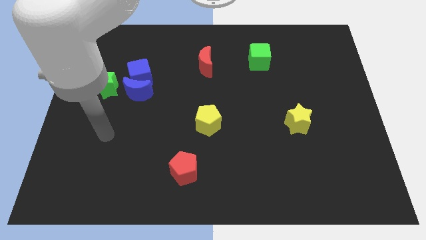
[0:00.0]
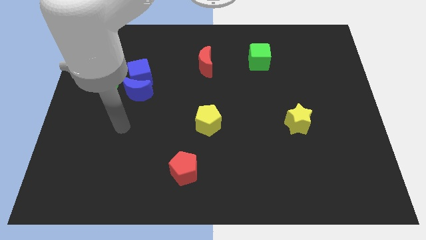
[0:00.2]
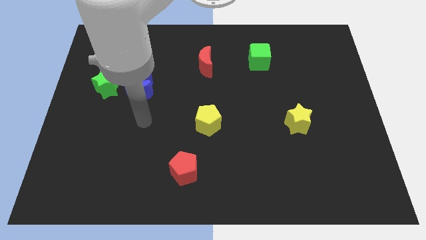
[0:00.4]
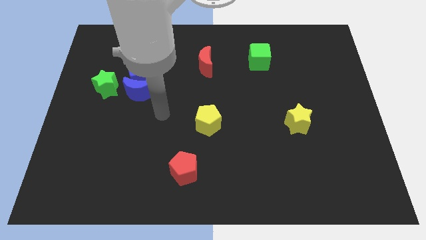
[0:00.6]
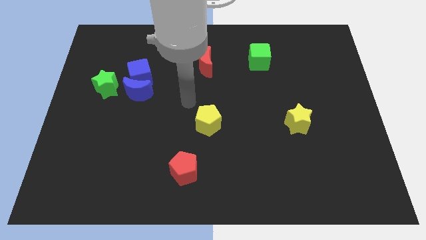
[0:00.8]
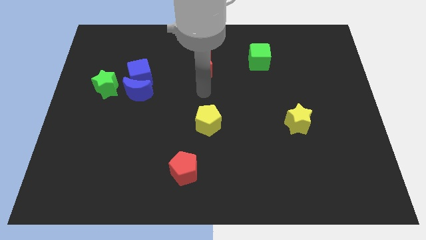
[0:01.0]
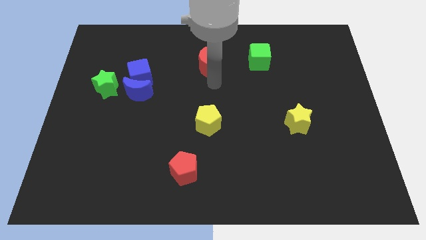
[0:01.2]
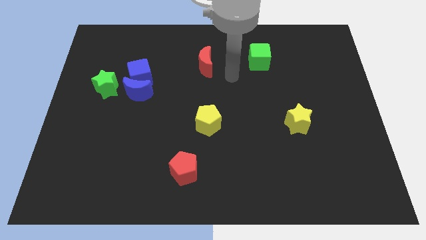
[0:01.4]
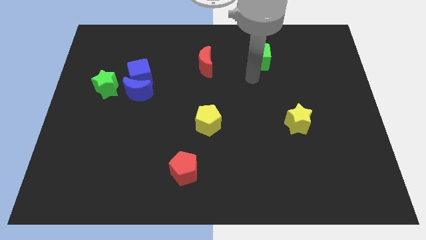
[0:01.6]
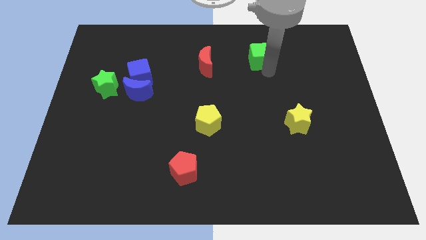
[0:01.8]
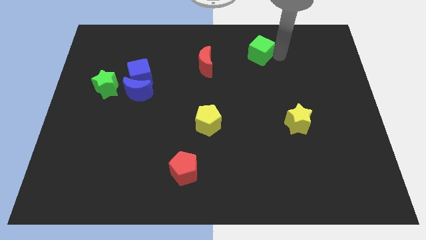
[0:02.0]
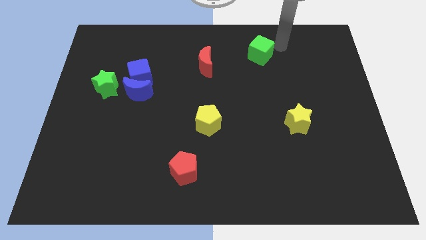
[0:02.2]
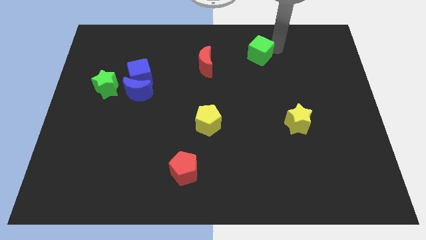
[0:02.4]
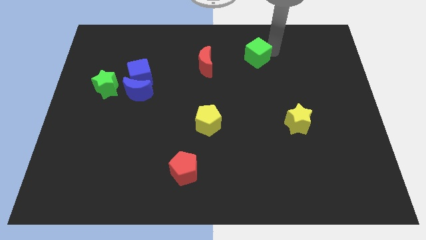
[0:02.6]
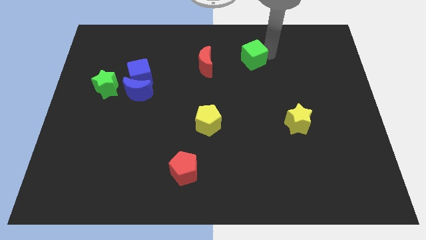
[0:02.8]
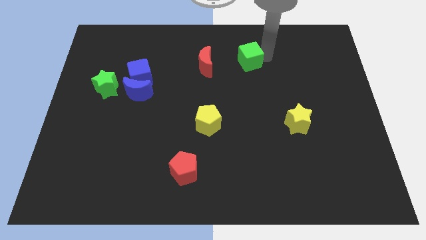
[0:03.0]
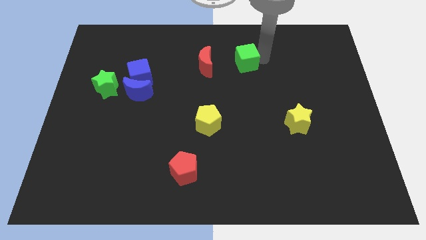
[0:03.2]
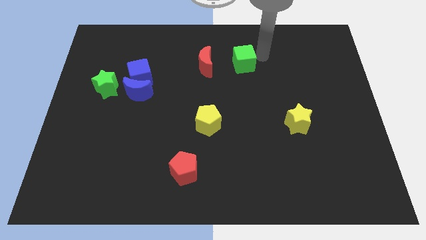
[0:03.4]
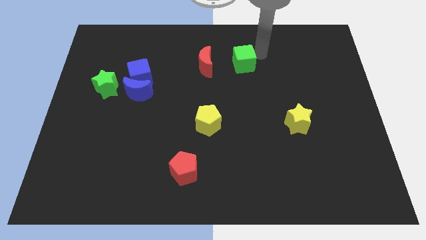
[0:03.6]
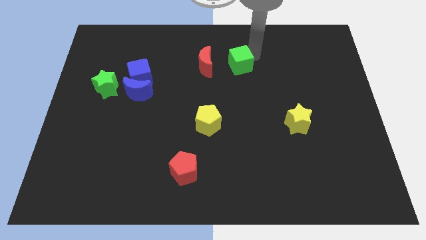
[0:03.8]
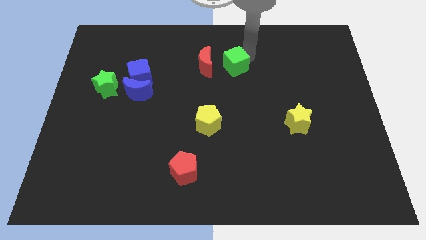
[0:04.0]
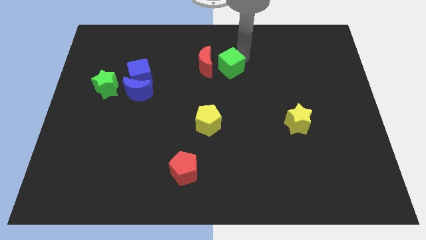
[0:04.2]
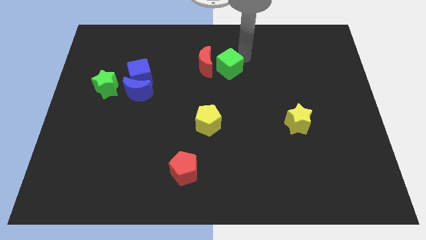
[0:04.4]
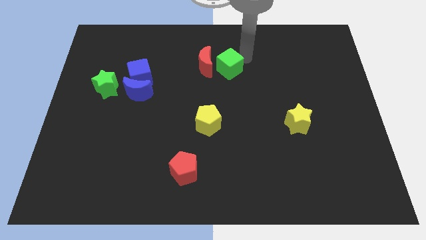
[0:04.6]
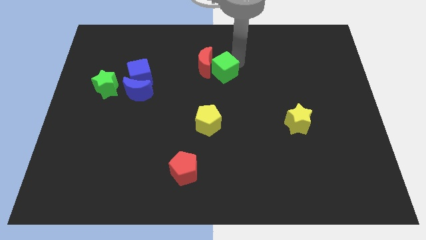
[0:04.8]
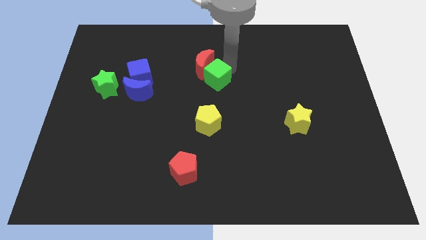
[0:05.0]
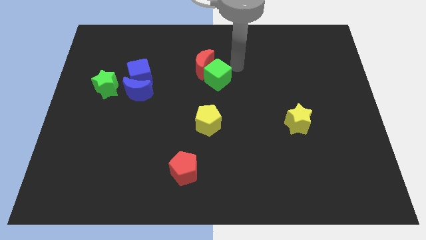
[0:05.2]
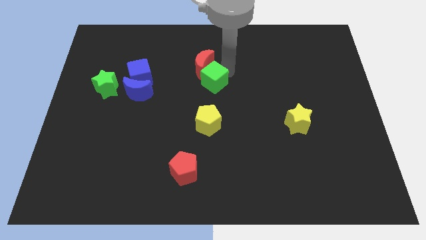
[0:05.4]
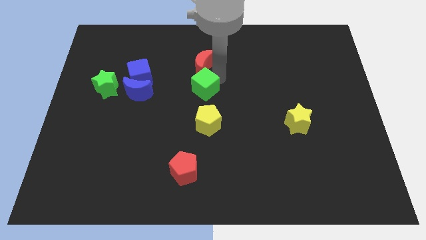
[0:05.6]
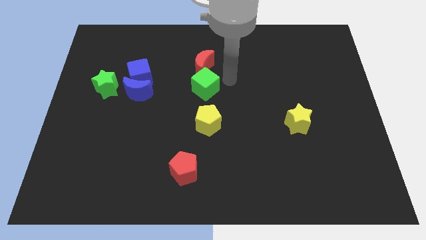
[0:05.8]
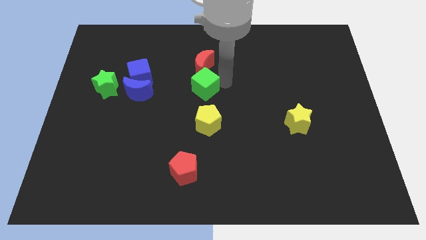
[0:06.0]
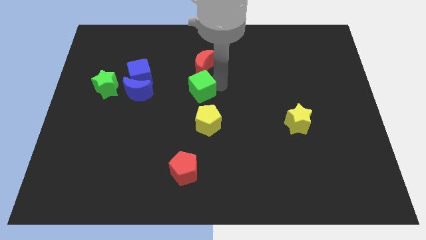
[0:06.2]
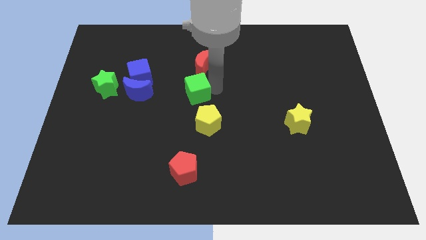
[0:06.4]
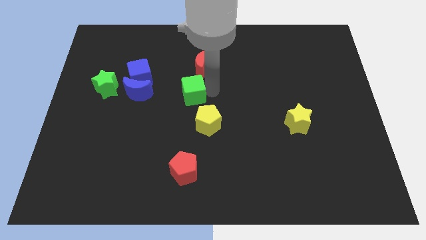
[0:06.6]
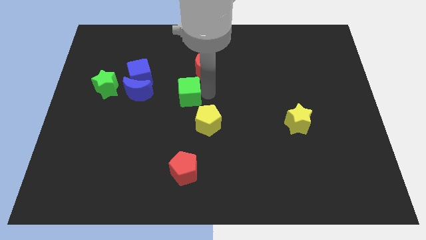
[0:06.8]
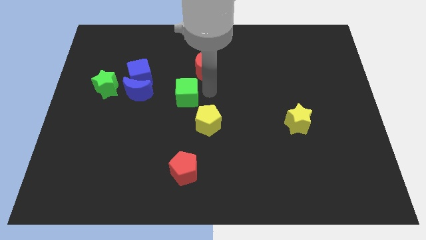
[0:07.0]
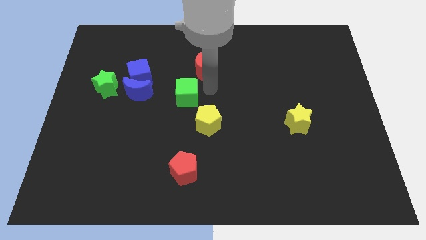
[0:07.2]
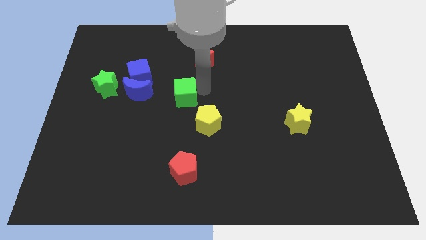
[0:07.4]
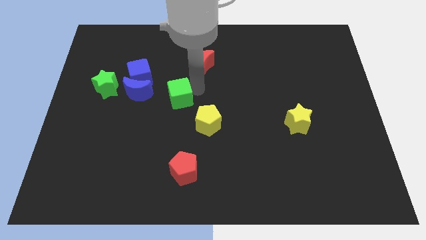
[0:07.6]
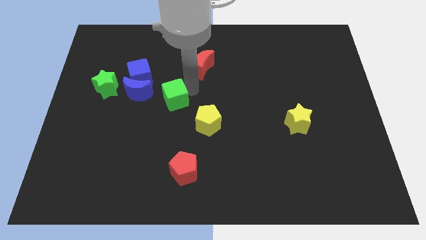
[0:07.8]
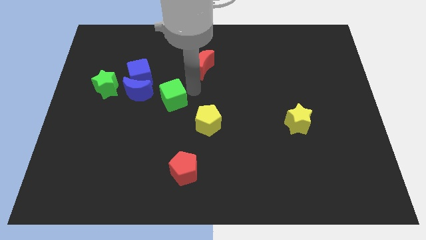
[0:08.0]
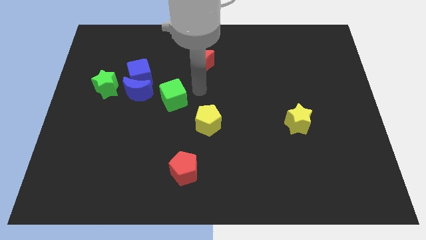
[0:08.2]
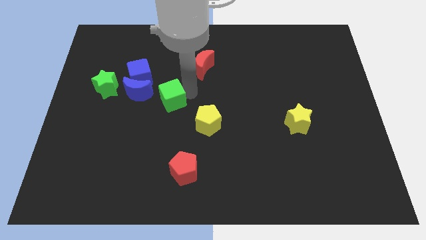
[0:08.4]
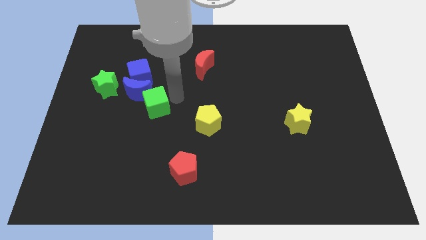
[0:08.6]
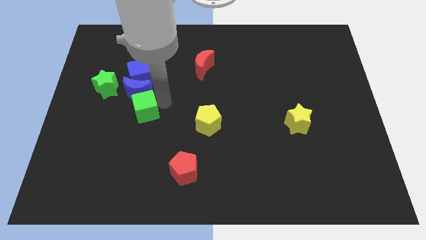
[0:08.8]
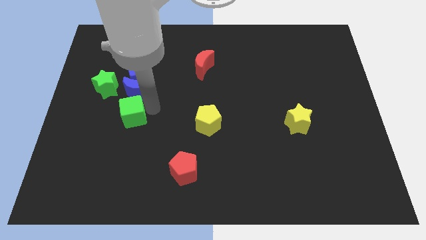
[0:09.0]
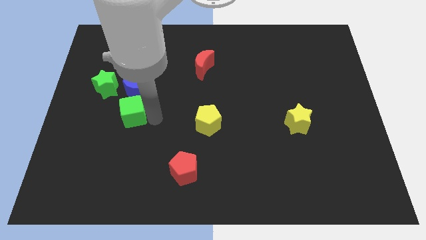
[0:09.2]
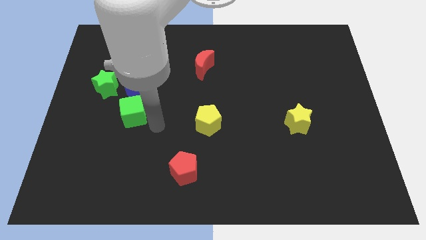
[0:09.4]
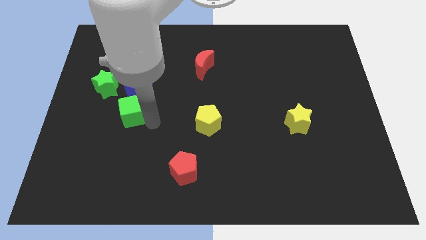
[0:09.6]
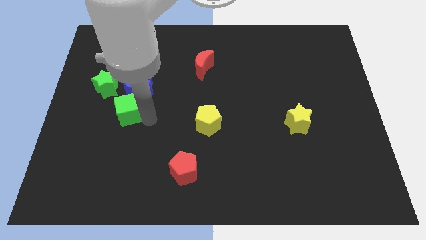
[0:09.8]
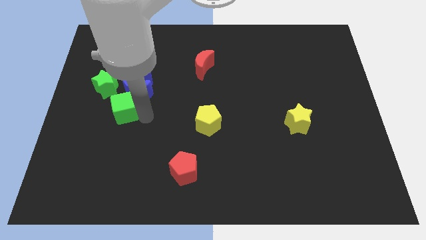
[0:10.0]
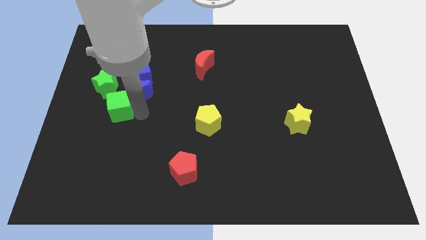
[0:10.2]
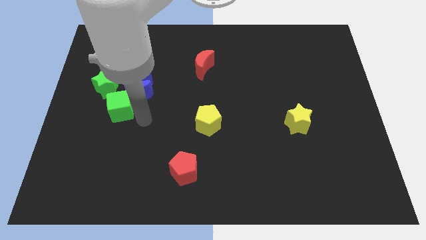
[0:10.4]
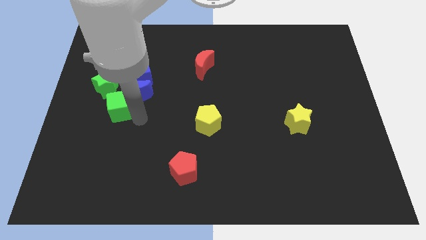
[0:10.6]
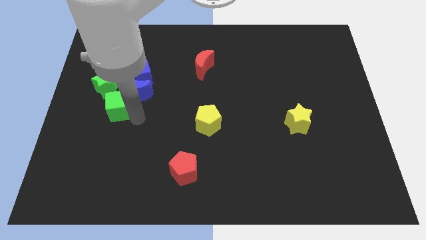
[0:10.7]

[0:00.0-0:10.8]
put the green cube to the bottom left of the blue cube

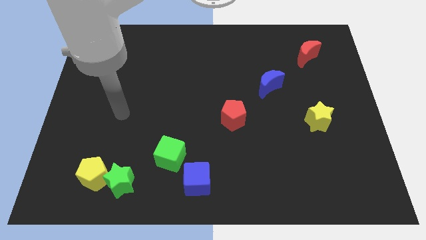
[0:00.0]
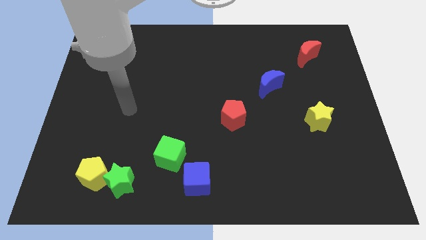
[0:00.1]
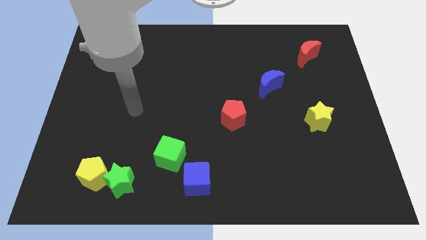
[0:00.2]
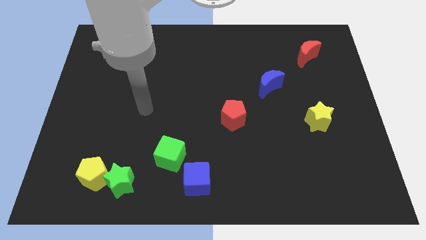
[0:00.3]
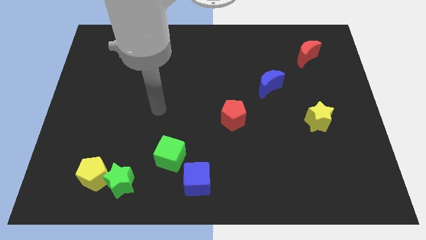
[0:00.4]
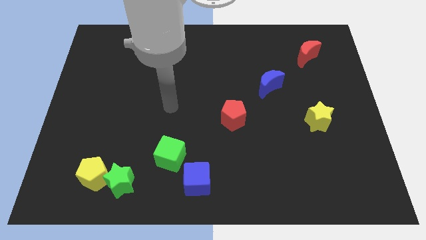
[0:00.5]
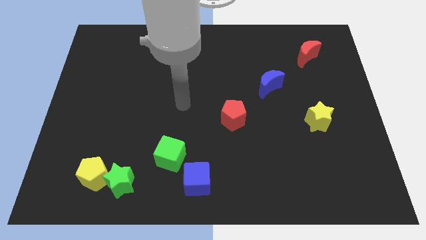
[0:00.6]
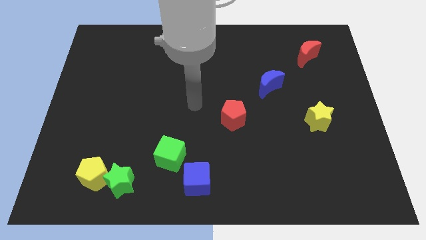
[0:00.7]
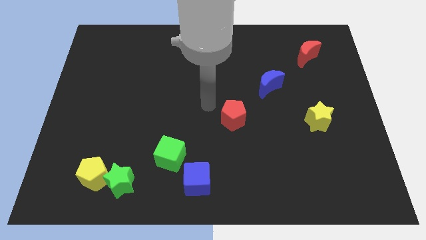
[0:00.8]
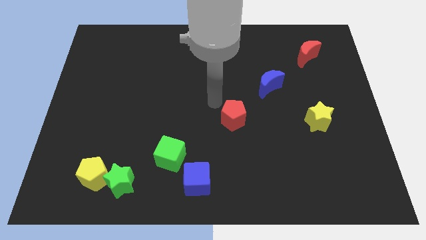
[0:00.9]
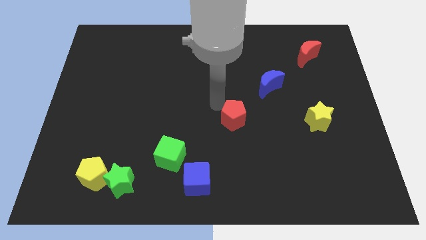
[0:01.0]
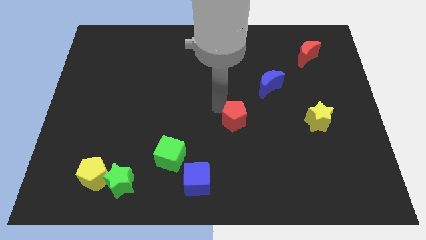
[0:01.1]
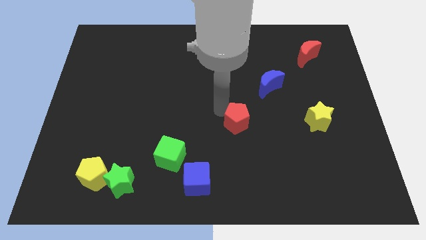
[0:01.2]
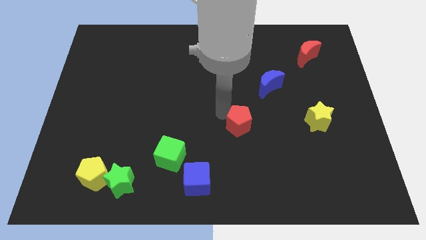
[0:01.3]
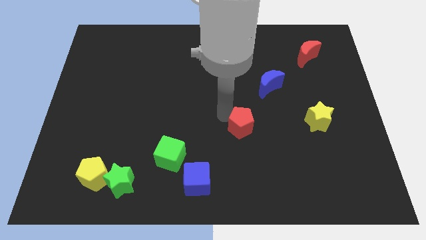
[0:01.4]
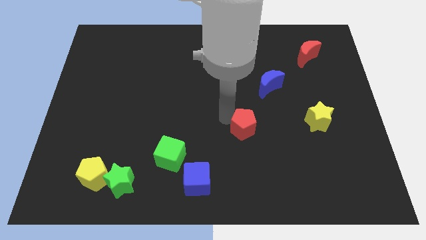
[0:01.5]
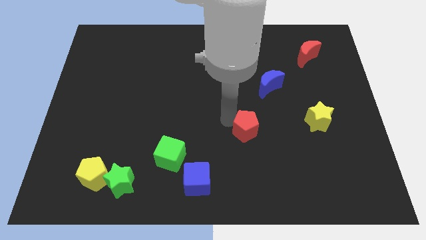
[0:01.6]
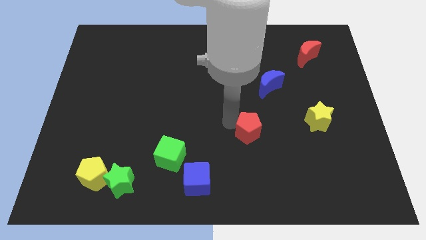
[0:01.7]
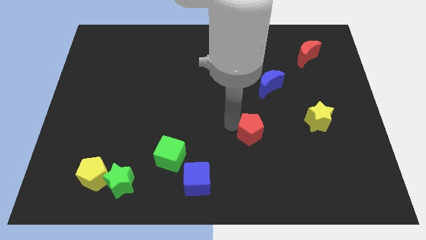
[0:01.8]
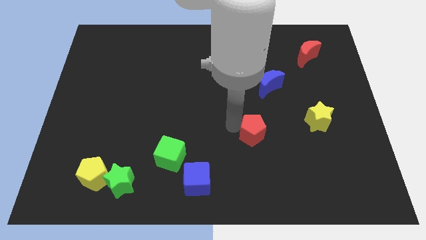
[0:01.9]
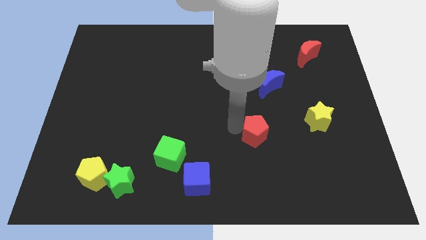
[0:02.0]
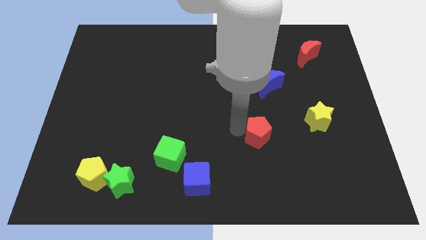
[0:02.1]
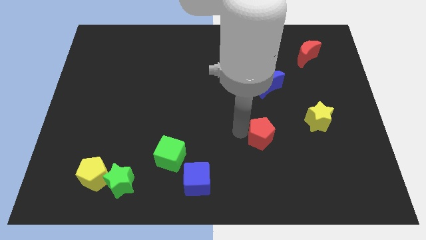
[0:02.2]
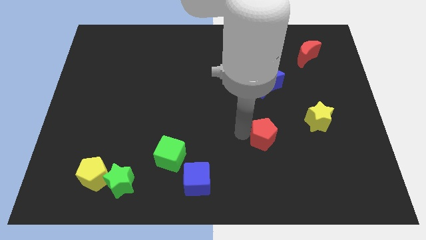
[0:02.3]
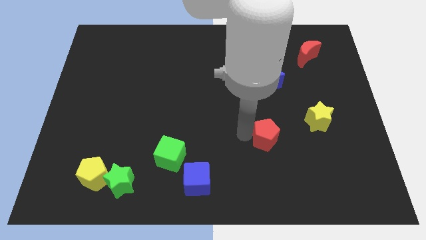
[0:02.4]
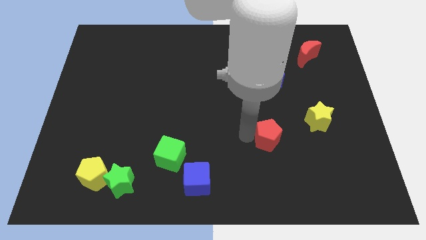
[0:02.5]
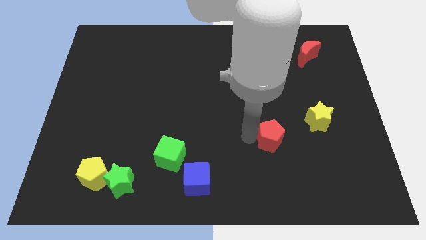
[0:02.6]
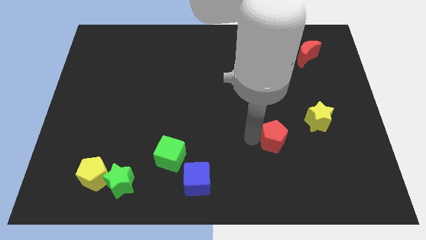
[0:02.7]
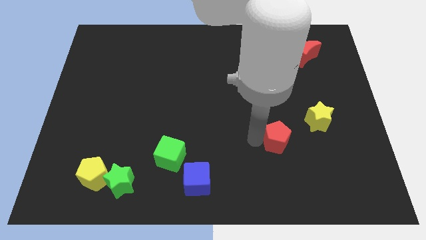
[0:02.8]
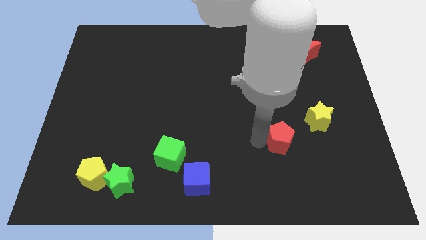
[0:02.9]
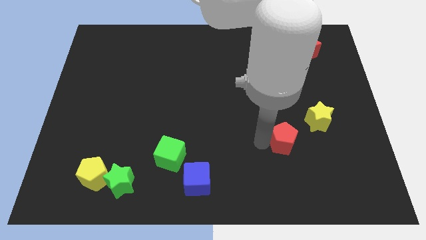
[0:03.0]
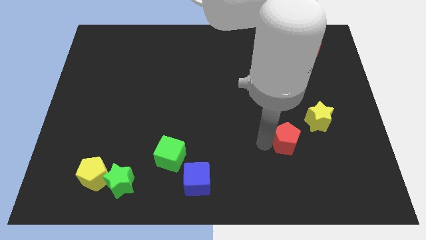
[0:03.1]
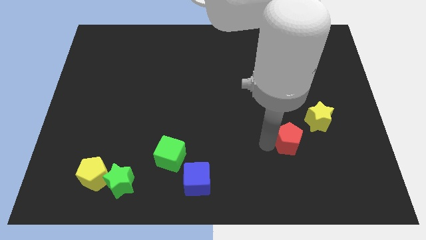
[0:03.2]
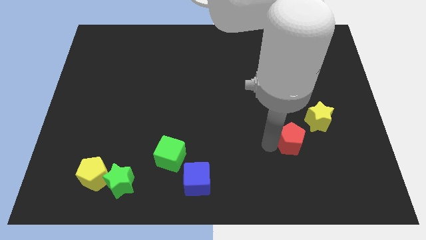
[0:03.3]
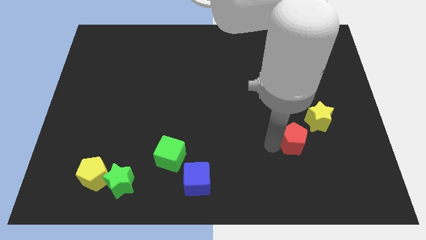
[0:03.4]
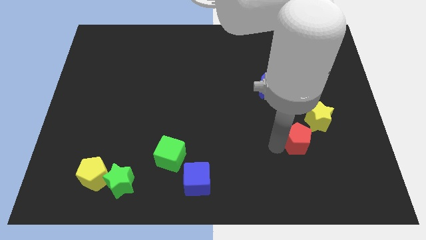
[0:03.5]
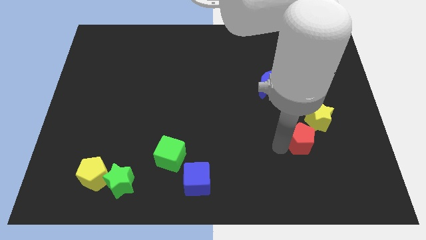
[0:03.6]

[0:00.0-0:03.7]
move the red pentagon to the bottom side of the yellow star
